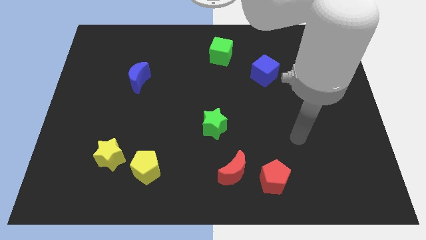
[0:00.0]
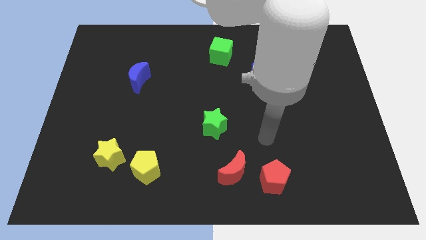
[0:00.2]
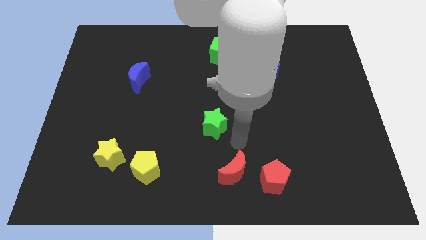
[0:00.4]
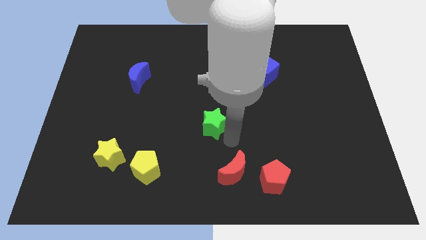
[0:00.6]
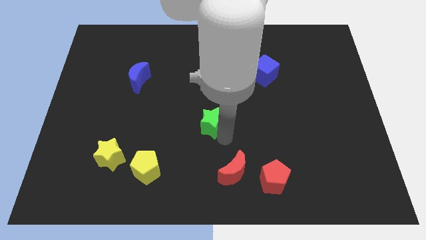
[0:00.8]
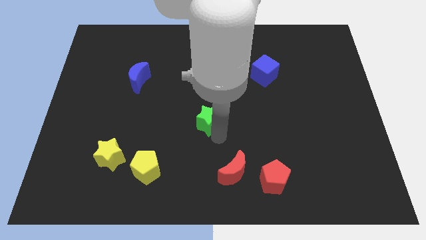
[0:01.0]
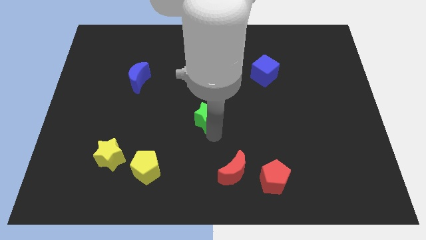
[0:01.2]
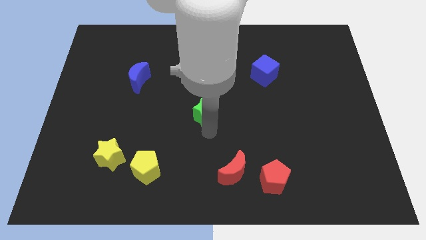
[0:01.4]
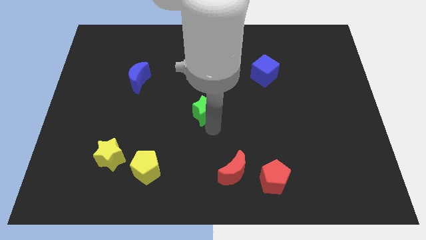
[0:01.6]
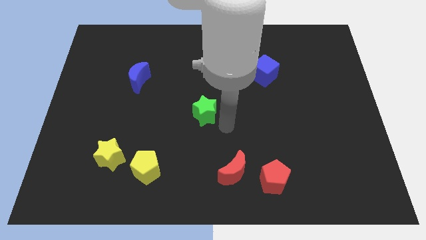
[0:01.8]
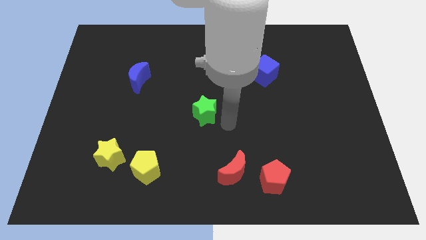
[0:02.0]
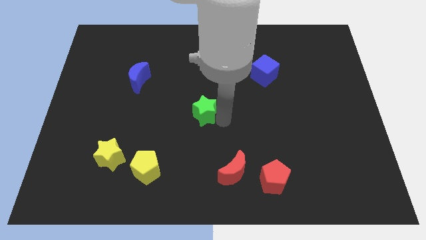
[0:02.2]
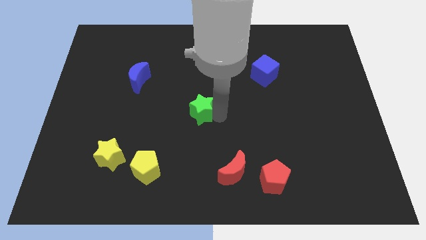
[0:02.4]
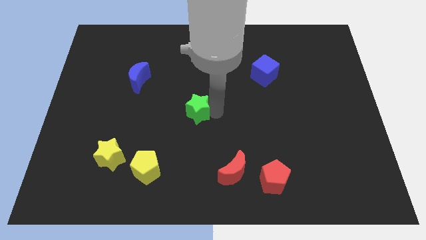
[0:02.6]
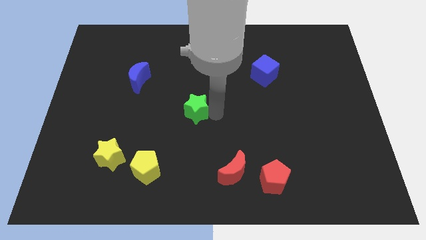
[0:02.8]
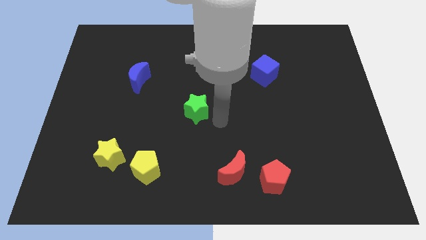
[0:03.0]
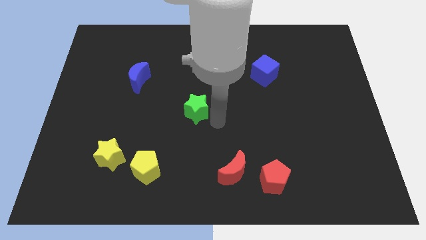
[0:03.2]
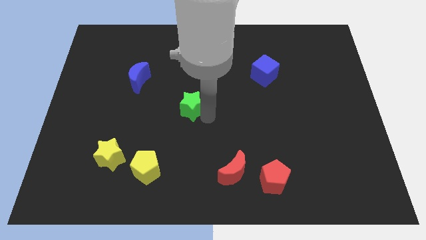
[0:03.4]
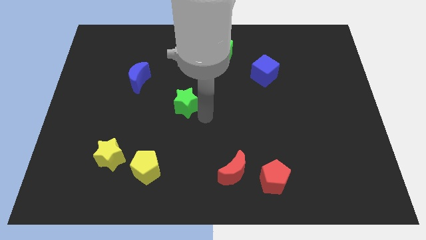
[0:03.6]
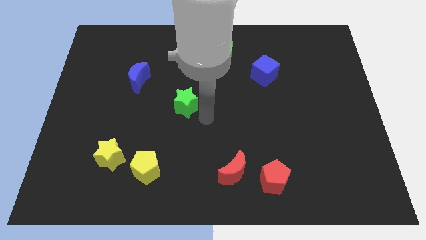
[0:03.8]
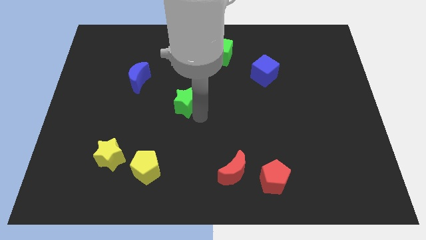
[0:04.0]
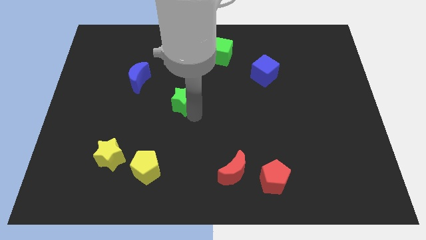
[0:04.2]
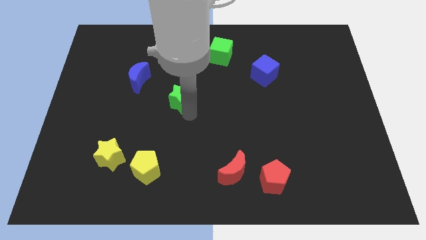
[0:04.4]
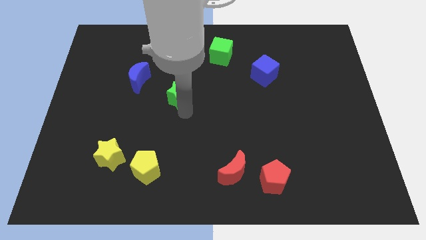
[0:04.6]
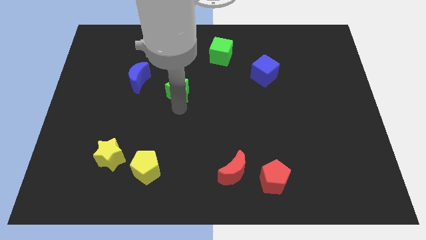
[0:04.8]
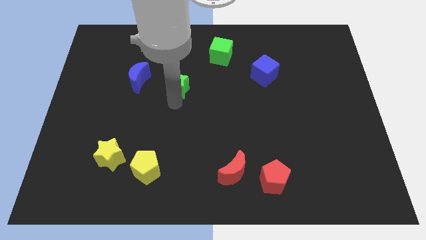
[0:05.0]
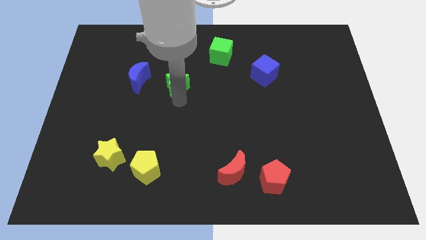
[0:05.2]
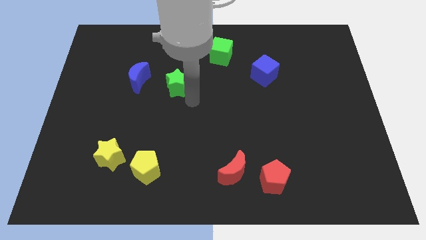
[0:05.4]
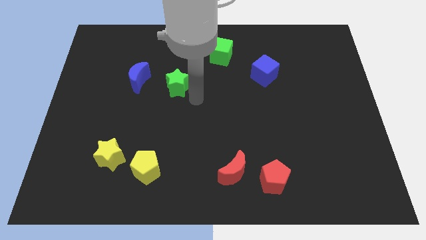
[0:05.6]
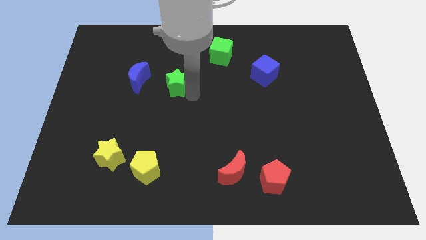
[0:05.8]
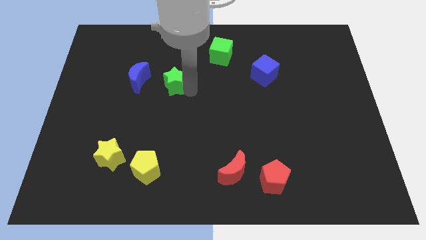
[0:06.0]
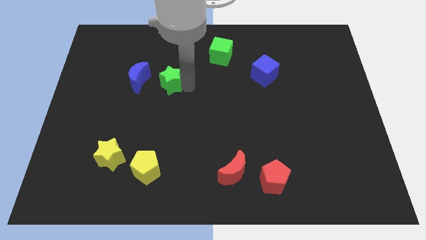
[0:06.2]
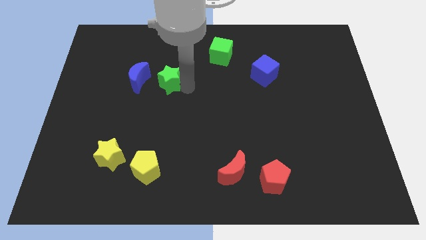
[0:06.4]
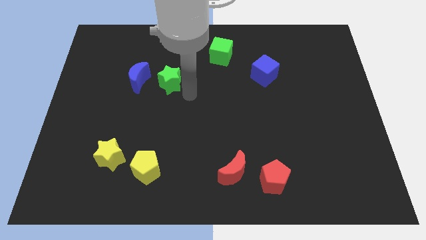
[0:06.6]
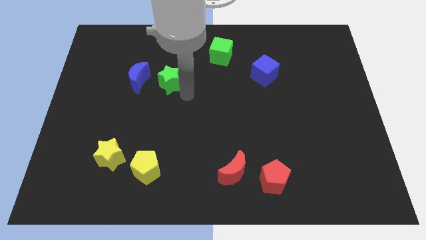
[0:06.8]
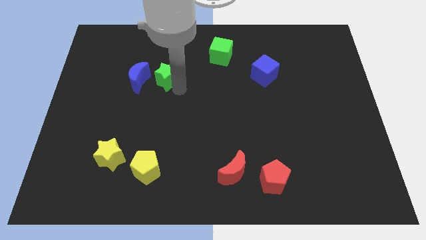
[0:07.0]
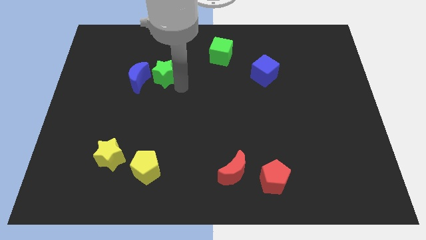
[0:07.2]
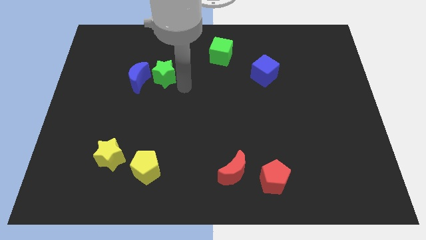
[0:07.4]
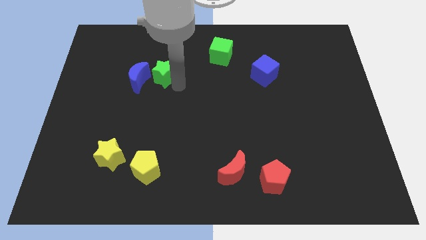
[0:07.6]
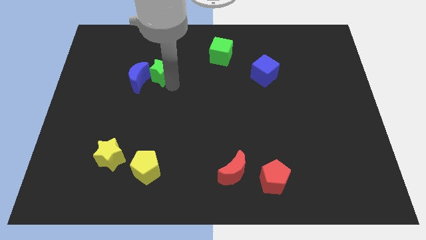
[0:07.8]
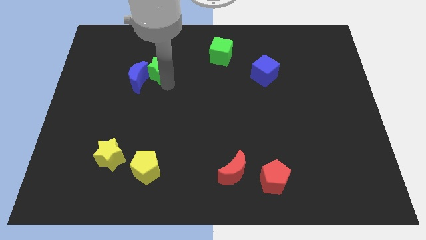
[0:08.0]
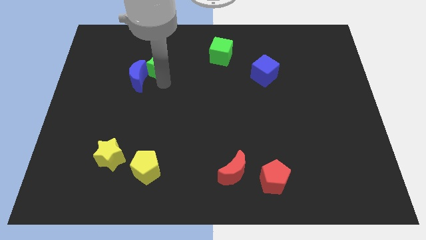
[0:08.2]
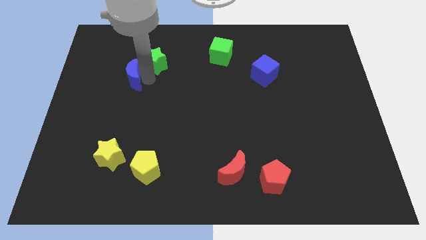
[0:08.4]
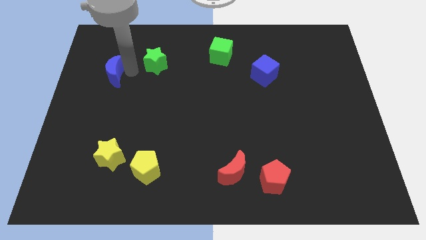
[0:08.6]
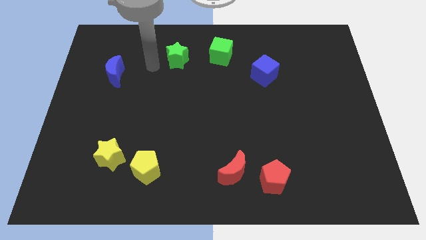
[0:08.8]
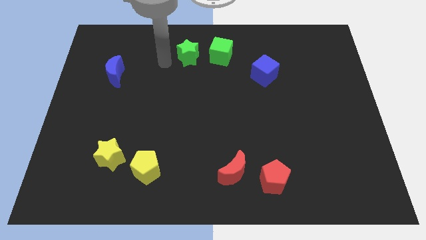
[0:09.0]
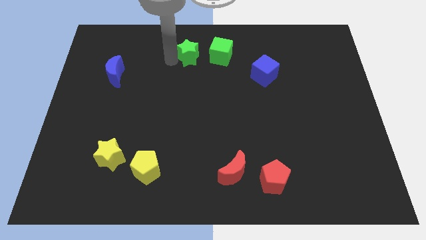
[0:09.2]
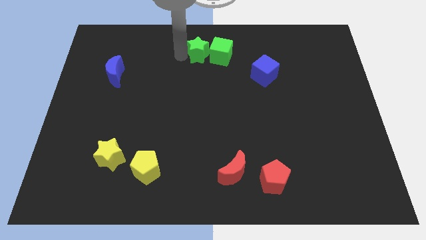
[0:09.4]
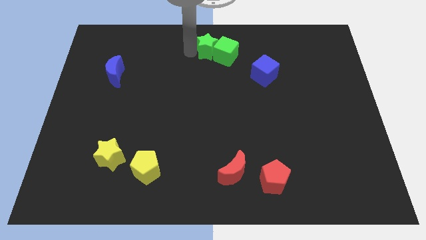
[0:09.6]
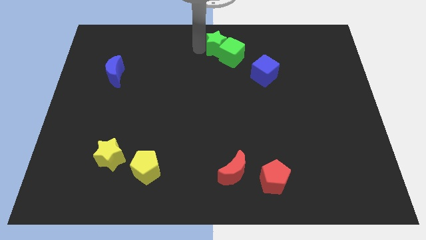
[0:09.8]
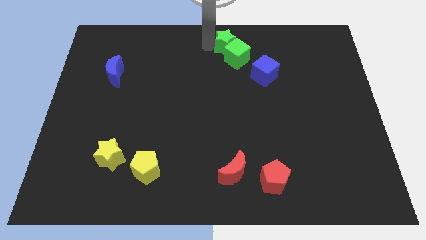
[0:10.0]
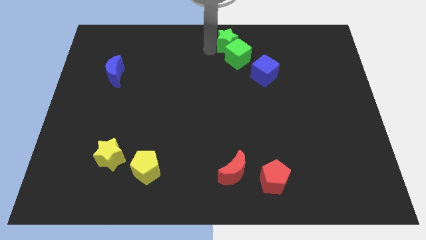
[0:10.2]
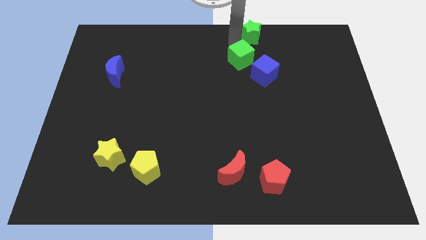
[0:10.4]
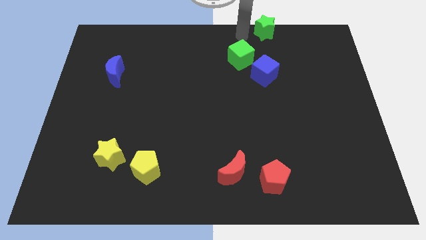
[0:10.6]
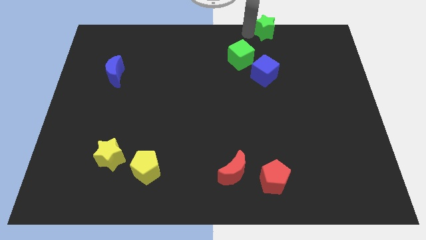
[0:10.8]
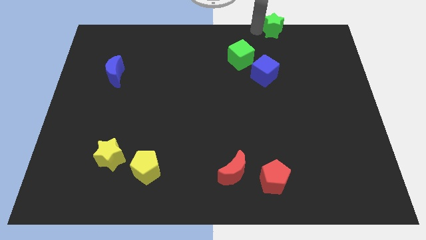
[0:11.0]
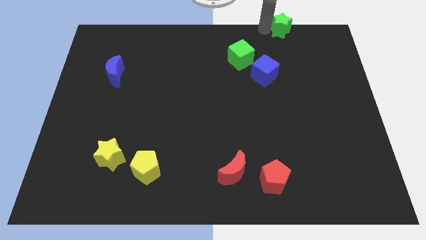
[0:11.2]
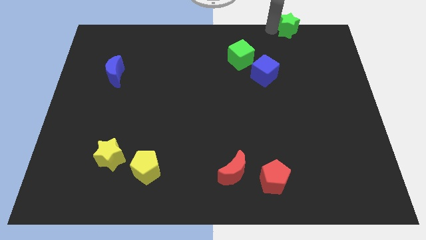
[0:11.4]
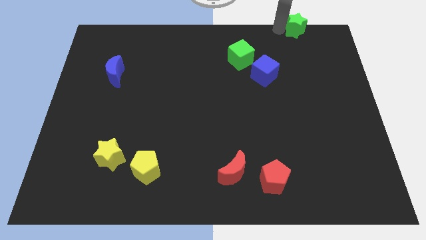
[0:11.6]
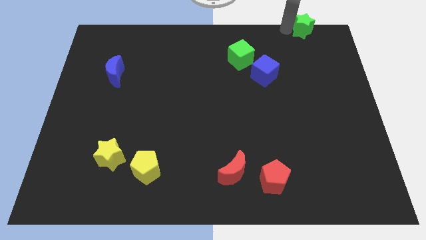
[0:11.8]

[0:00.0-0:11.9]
push the green star to the top right of the board

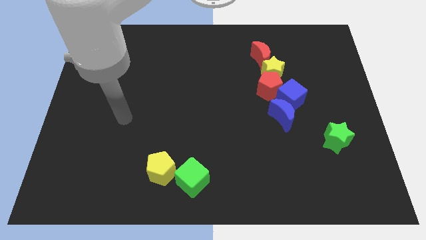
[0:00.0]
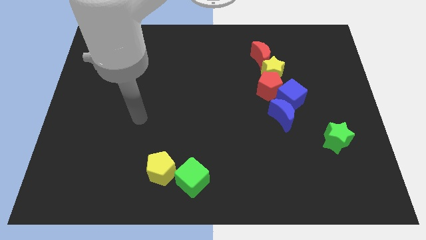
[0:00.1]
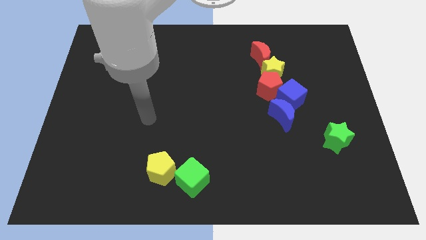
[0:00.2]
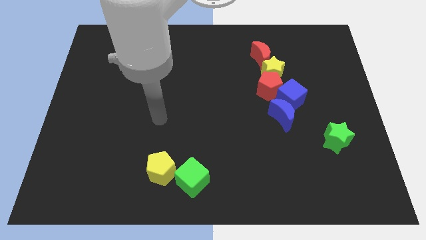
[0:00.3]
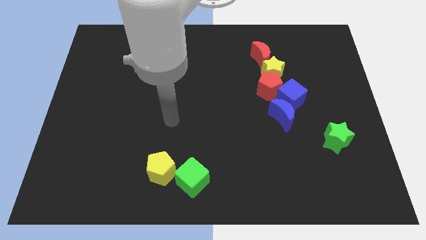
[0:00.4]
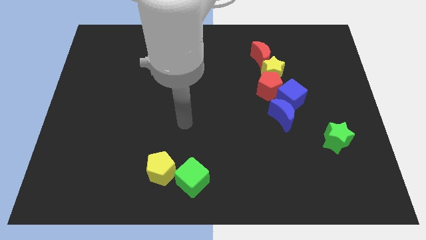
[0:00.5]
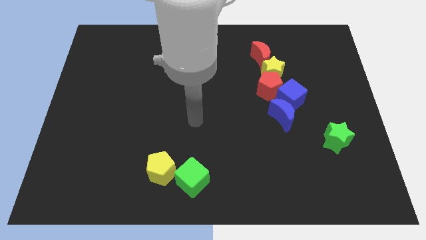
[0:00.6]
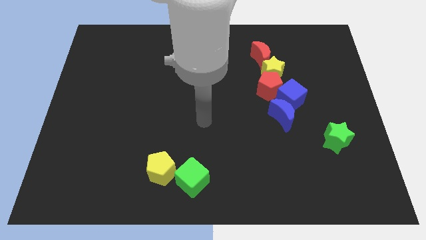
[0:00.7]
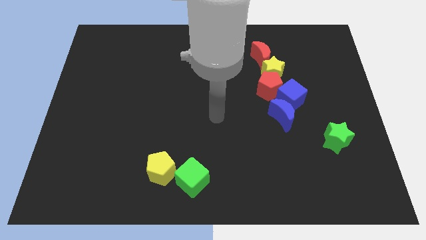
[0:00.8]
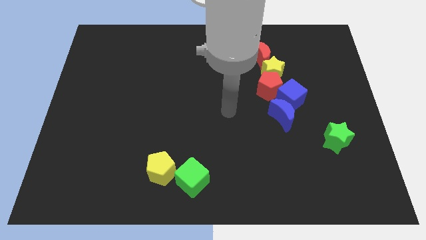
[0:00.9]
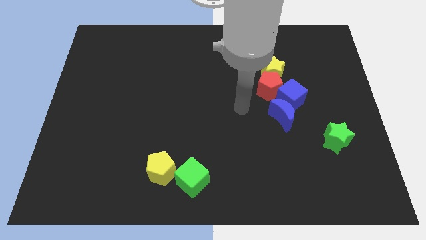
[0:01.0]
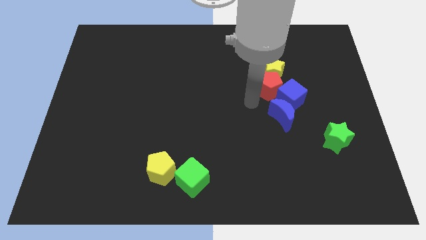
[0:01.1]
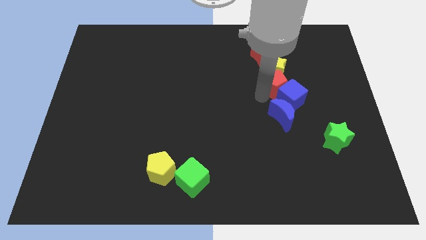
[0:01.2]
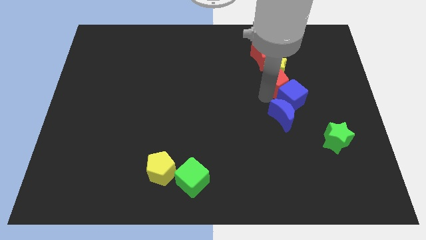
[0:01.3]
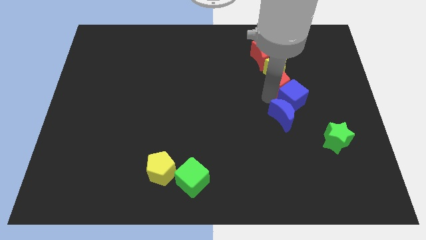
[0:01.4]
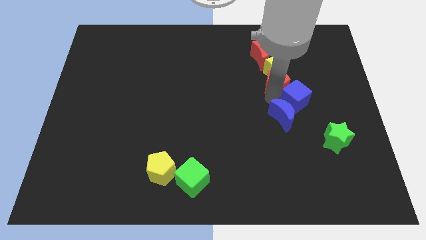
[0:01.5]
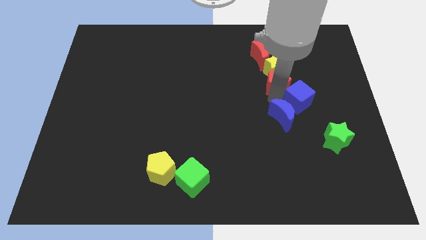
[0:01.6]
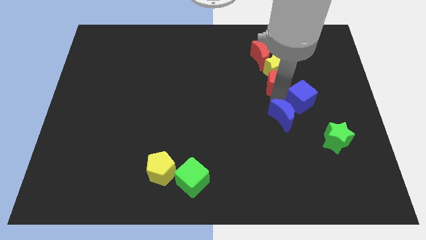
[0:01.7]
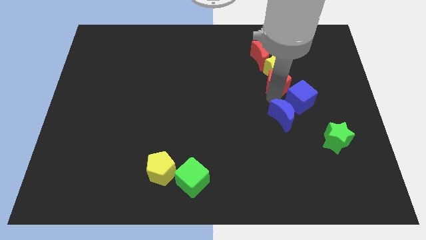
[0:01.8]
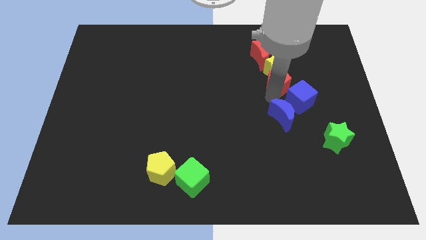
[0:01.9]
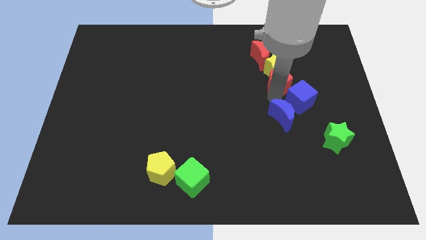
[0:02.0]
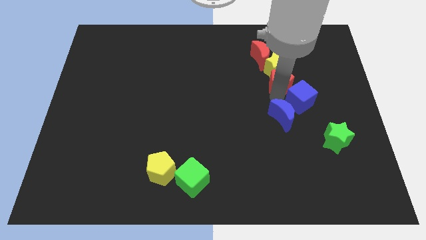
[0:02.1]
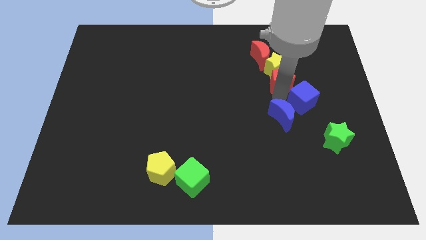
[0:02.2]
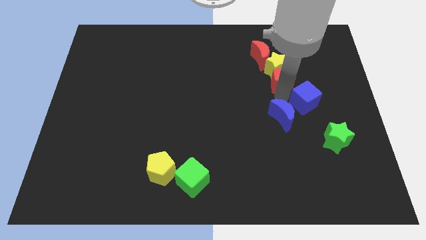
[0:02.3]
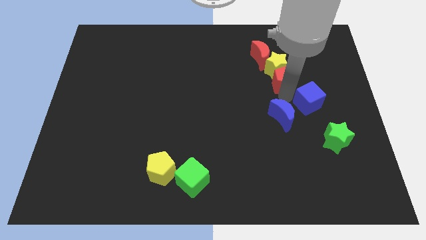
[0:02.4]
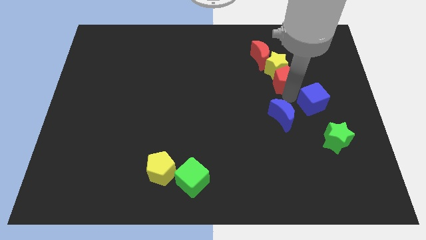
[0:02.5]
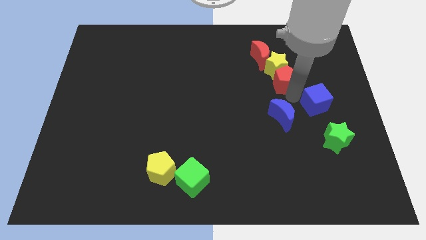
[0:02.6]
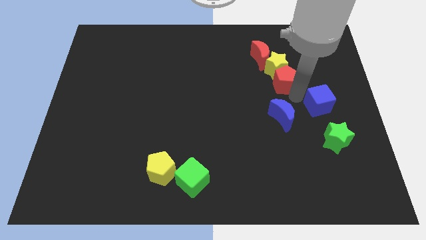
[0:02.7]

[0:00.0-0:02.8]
put the blue cube to the center right
